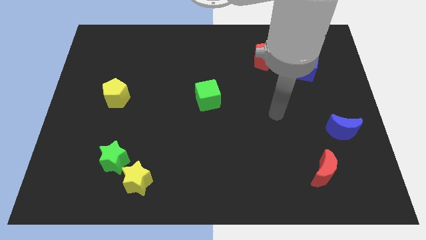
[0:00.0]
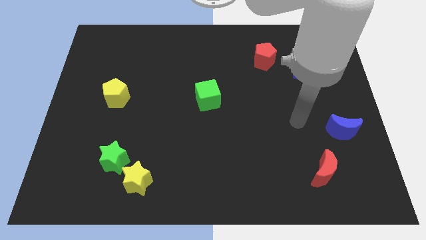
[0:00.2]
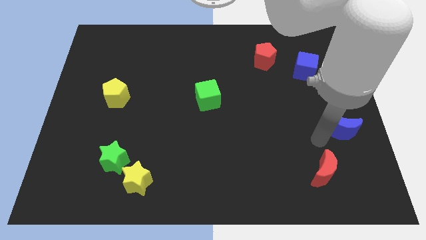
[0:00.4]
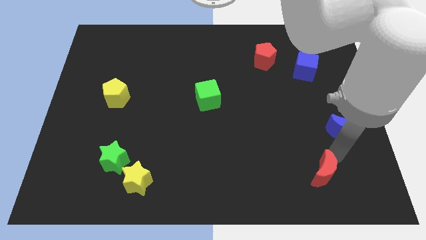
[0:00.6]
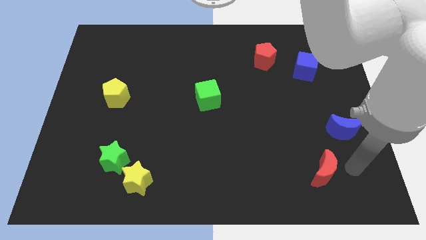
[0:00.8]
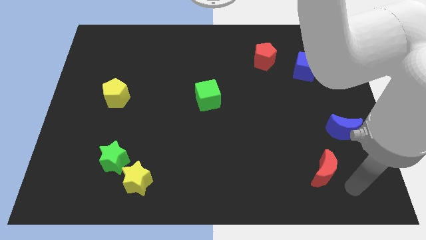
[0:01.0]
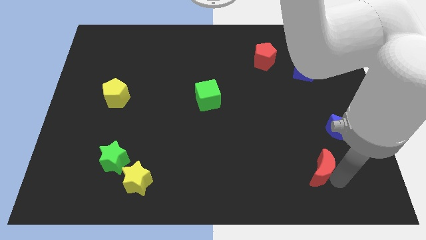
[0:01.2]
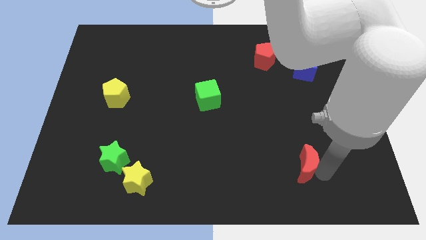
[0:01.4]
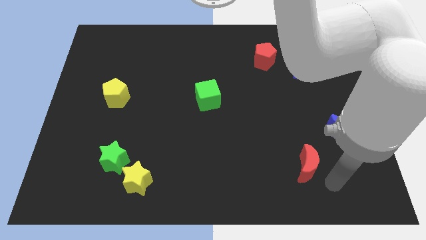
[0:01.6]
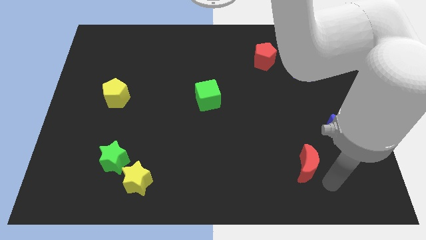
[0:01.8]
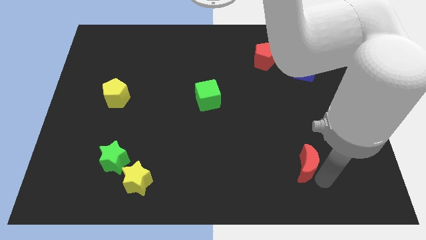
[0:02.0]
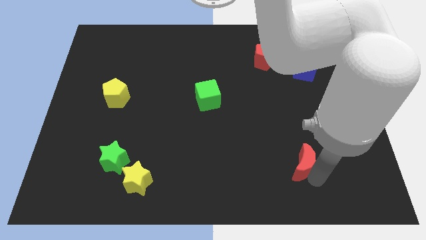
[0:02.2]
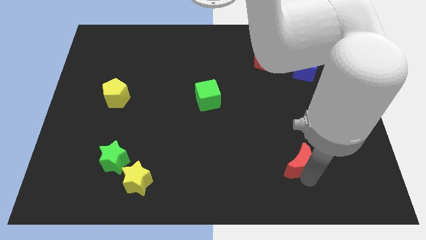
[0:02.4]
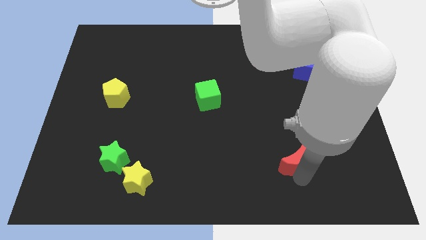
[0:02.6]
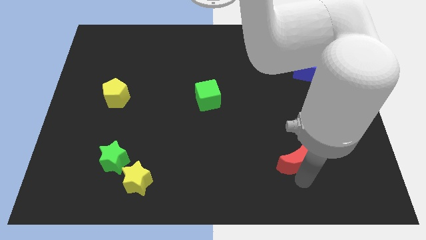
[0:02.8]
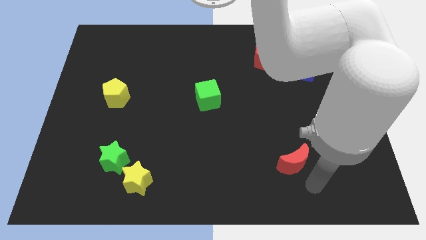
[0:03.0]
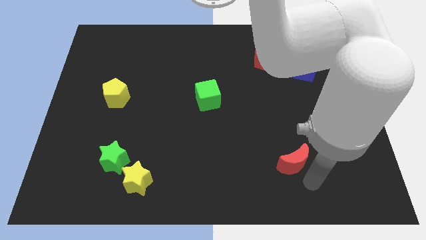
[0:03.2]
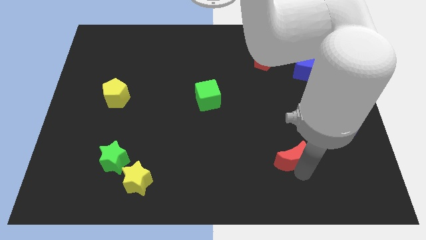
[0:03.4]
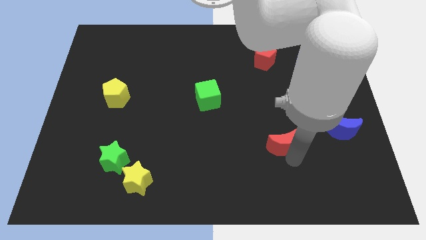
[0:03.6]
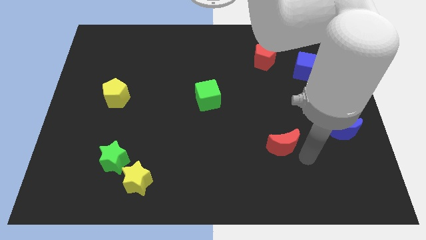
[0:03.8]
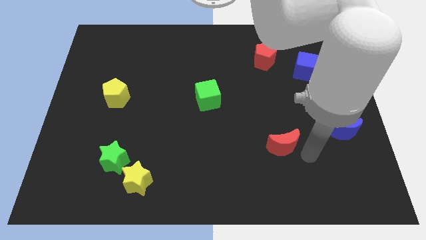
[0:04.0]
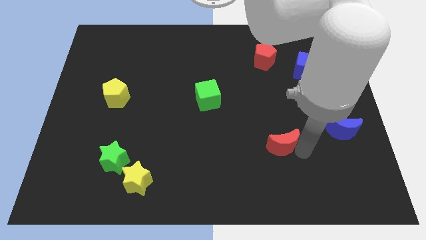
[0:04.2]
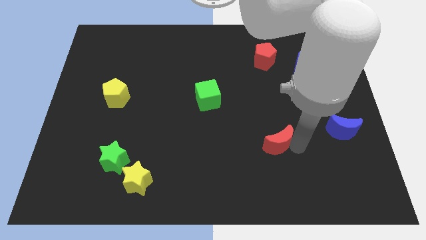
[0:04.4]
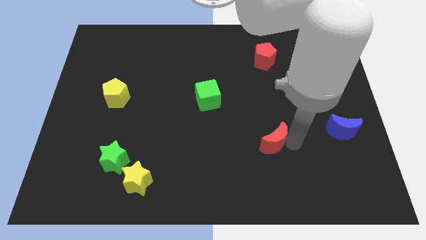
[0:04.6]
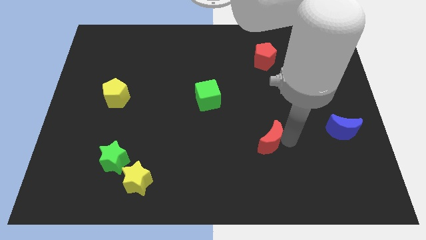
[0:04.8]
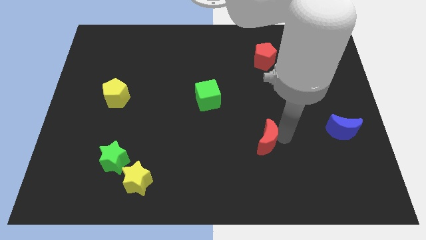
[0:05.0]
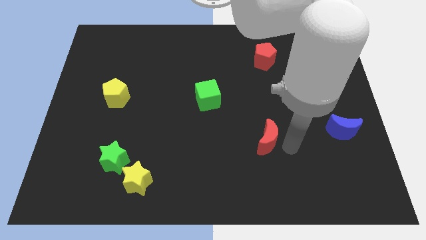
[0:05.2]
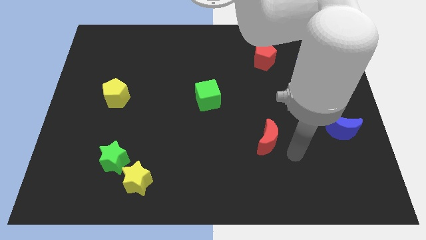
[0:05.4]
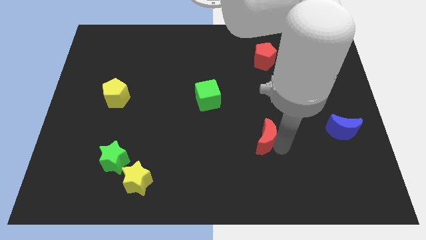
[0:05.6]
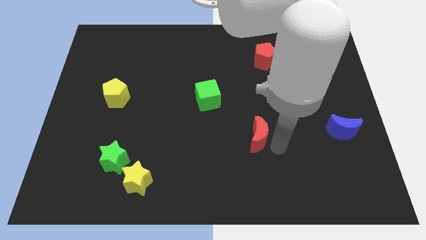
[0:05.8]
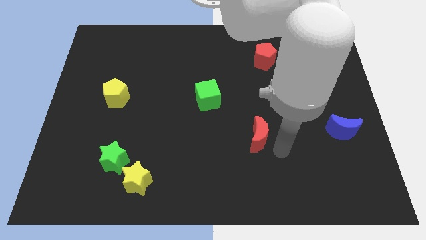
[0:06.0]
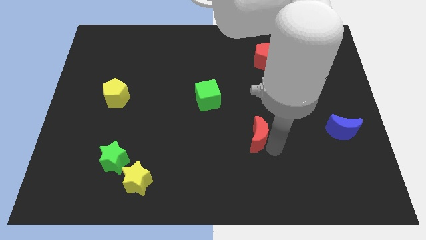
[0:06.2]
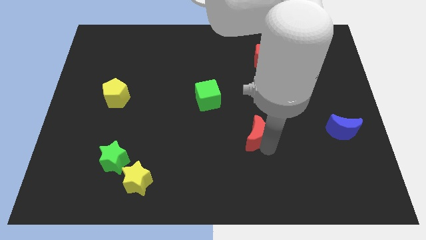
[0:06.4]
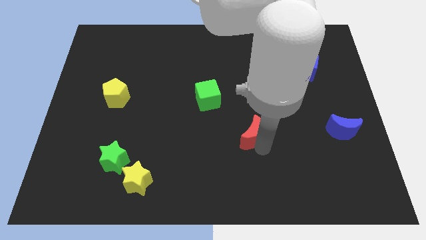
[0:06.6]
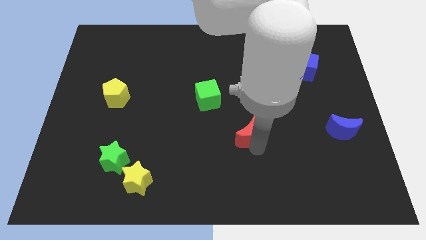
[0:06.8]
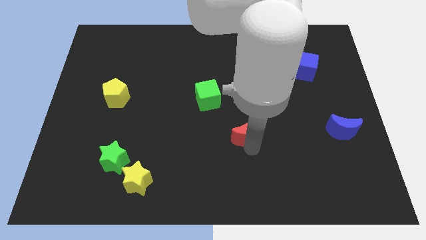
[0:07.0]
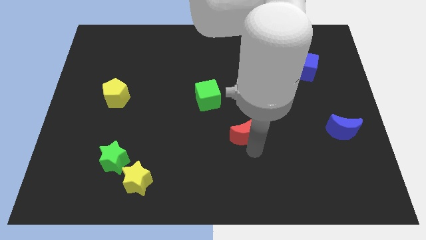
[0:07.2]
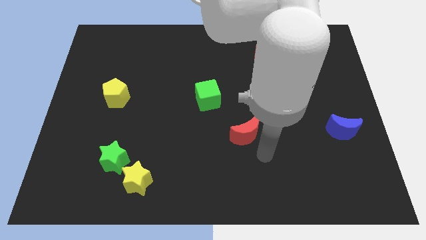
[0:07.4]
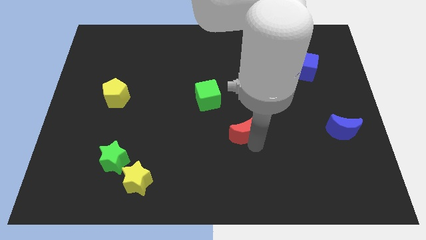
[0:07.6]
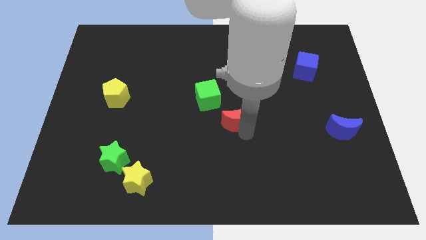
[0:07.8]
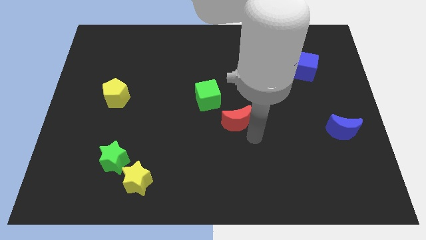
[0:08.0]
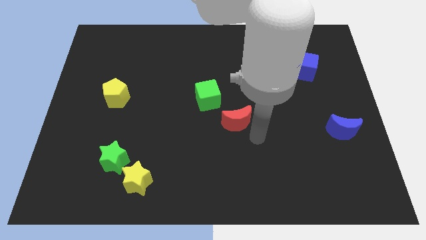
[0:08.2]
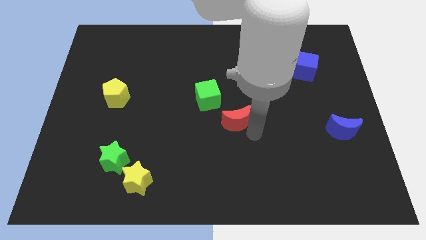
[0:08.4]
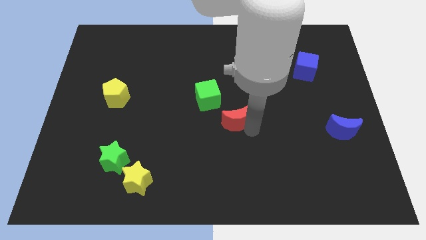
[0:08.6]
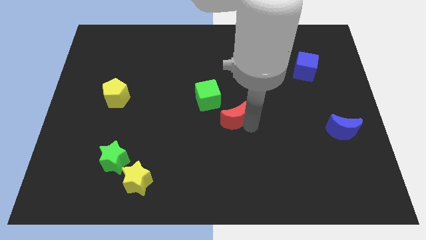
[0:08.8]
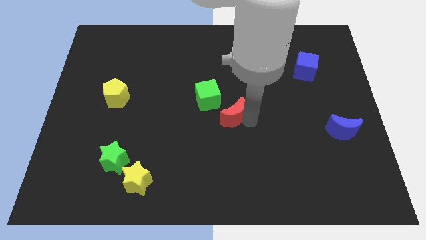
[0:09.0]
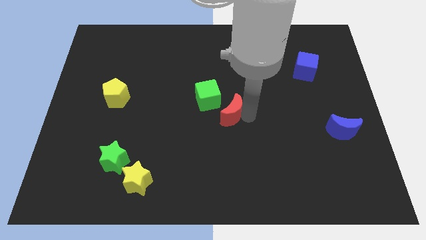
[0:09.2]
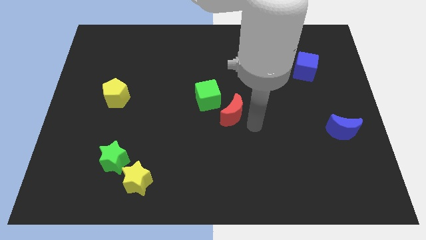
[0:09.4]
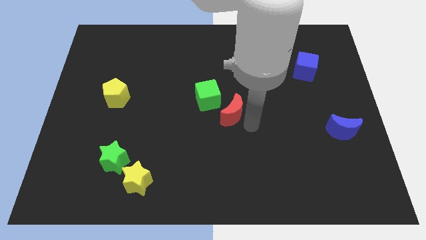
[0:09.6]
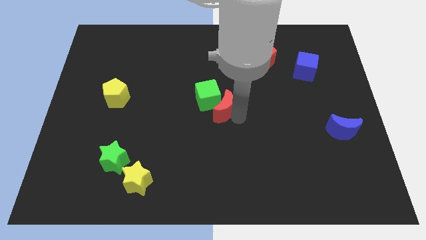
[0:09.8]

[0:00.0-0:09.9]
slide the red moon to the green cube
